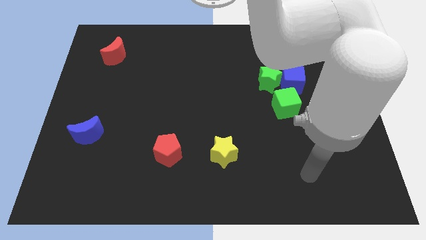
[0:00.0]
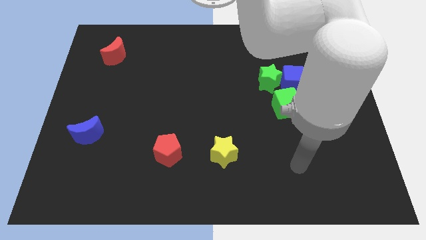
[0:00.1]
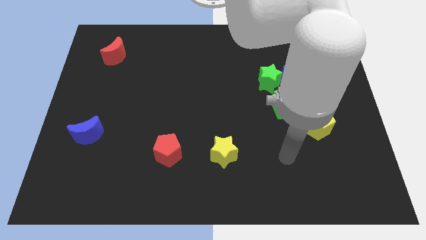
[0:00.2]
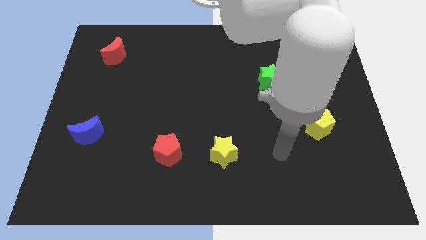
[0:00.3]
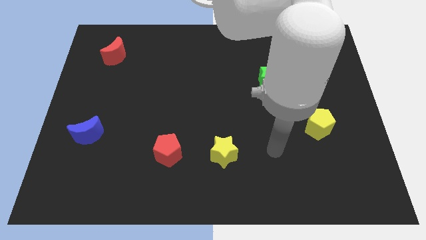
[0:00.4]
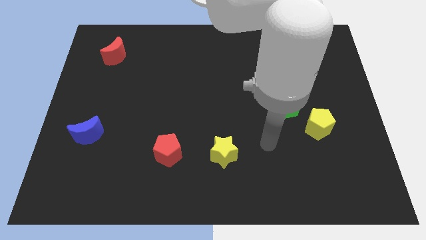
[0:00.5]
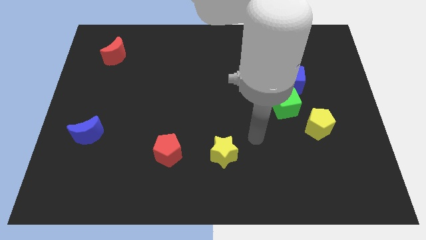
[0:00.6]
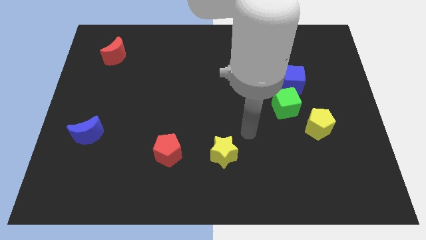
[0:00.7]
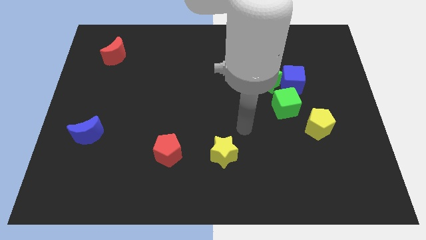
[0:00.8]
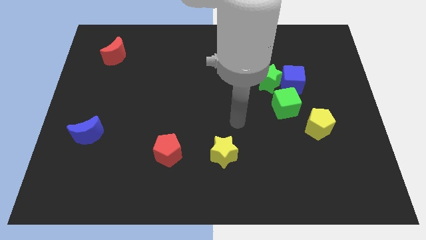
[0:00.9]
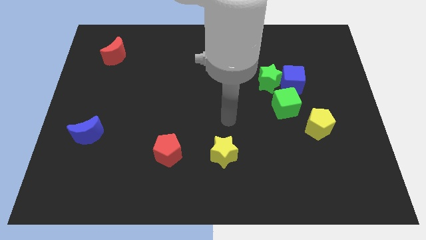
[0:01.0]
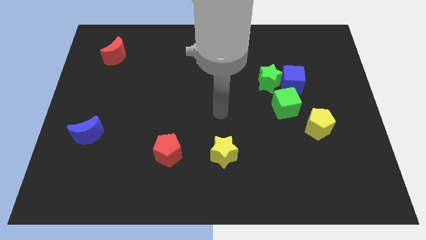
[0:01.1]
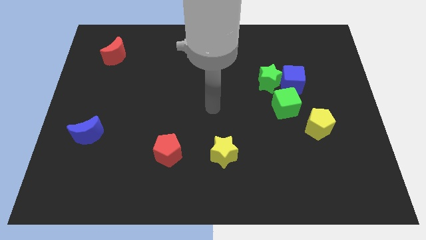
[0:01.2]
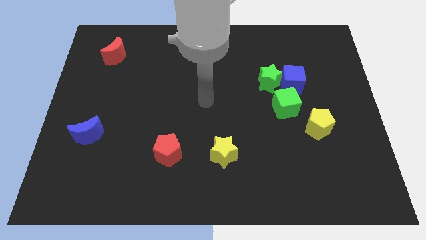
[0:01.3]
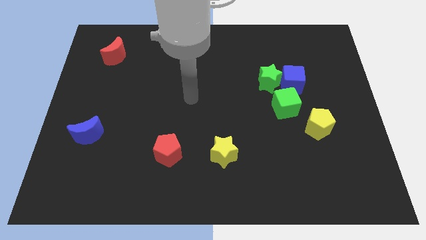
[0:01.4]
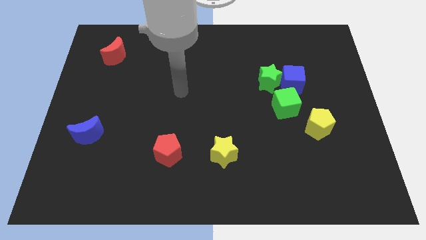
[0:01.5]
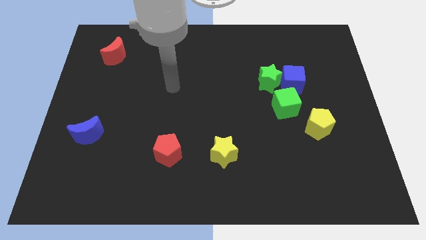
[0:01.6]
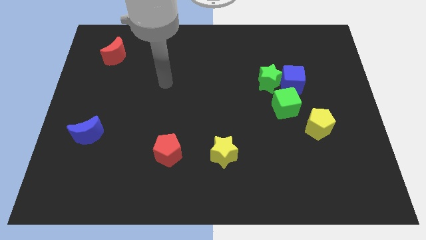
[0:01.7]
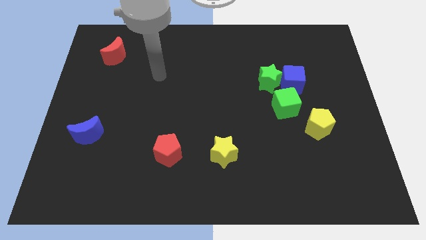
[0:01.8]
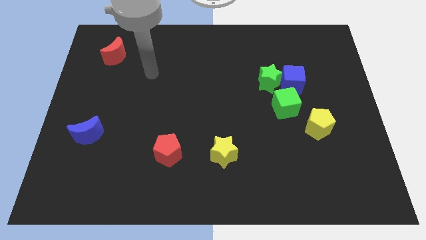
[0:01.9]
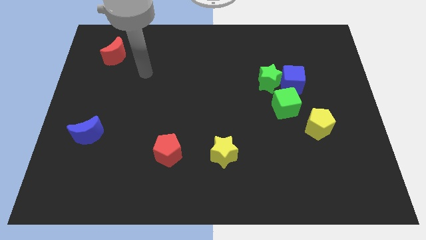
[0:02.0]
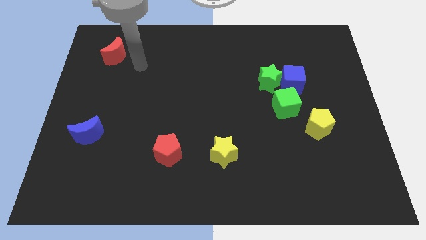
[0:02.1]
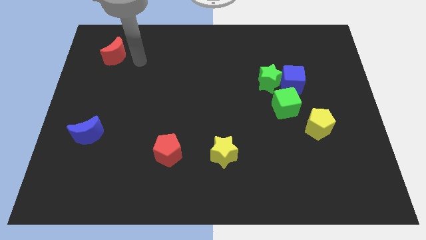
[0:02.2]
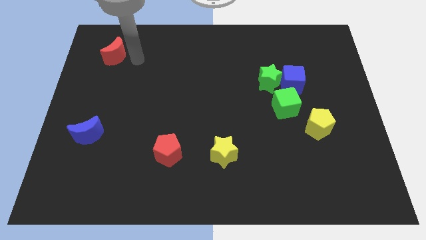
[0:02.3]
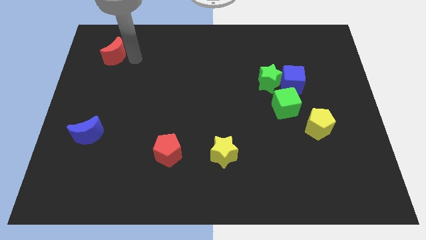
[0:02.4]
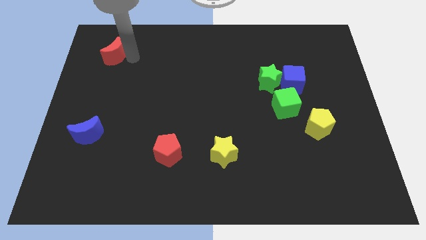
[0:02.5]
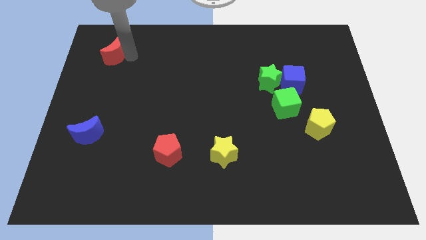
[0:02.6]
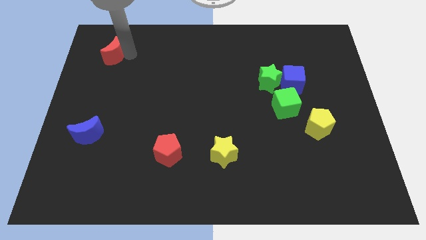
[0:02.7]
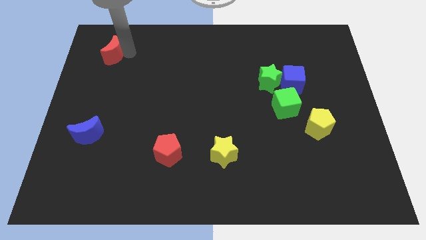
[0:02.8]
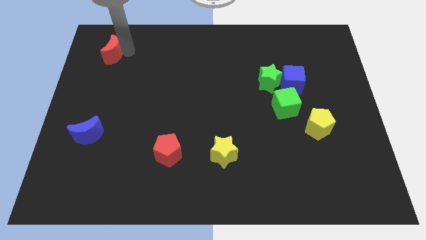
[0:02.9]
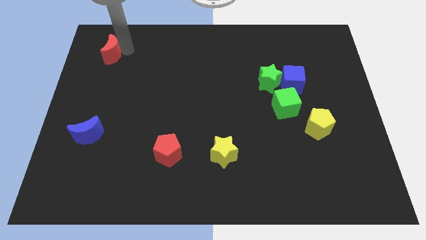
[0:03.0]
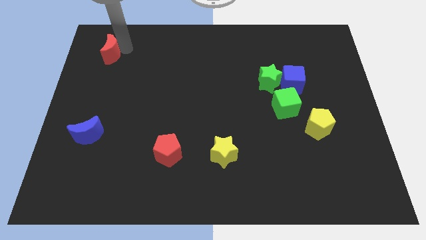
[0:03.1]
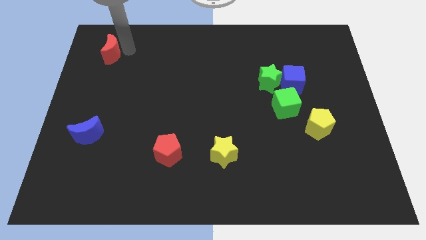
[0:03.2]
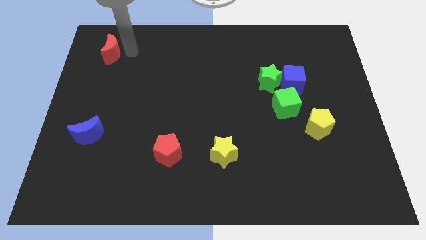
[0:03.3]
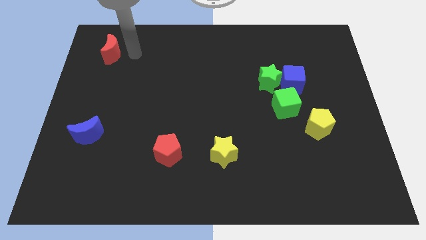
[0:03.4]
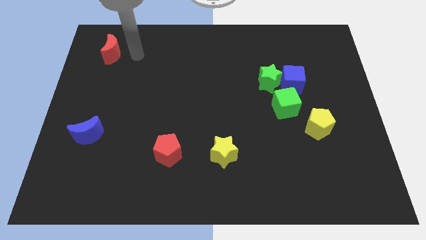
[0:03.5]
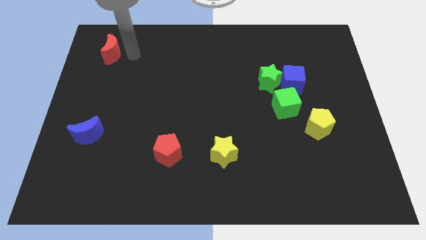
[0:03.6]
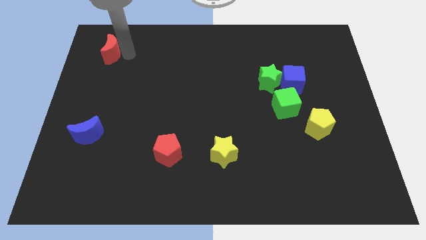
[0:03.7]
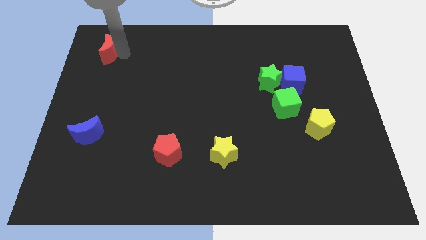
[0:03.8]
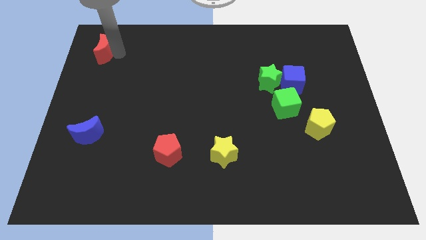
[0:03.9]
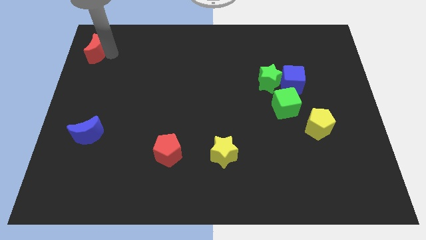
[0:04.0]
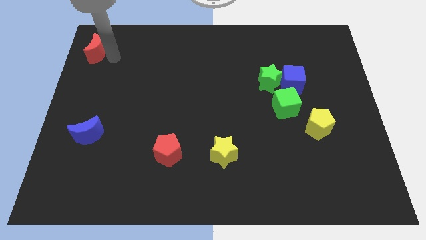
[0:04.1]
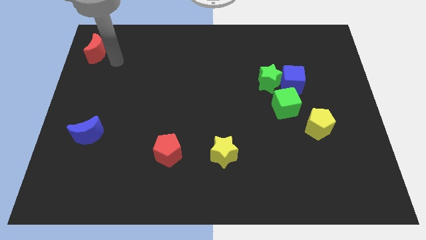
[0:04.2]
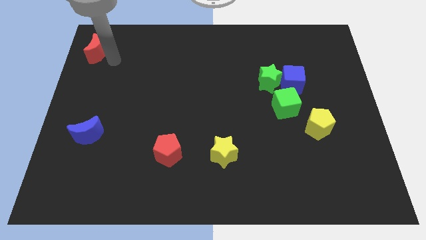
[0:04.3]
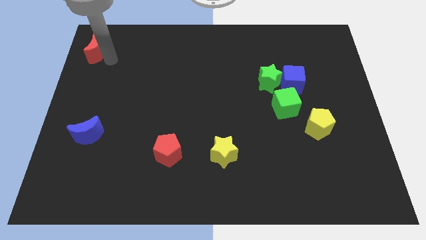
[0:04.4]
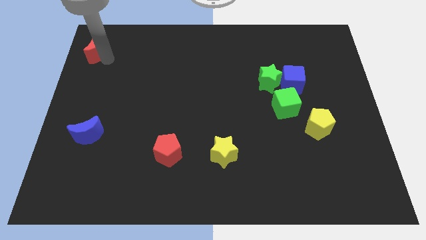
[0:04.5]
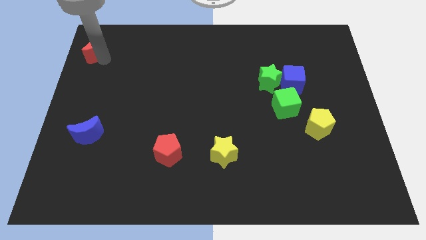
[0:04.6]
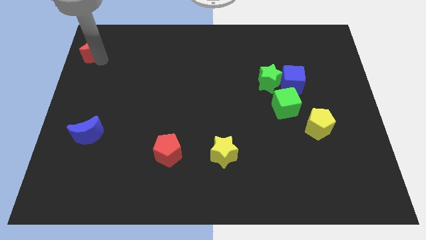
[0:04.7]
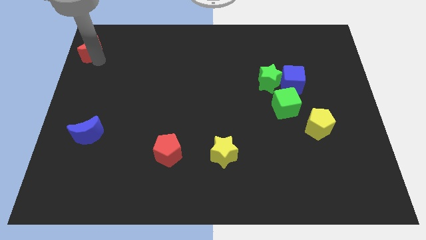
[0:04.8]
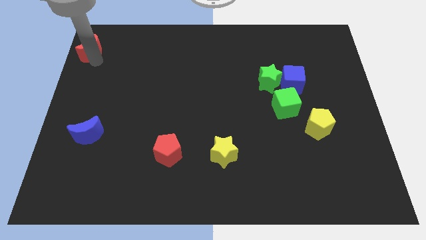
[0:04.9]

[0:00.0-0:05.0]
move the red moon to the top left corner
